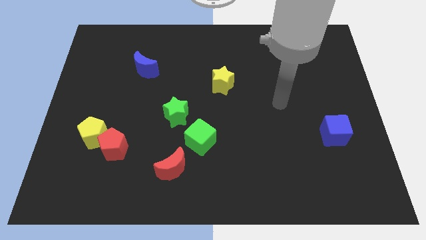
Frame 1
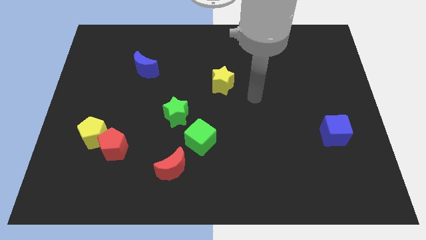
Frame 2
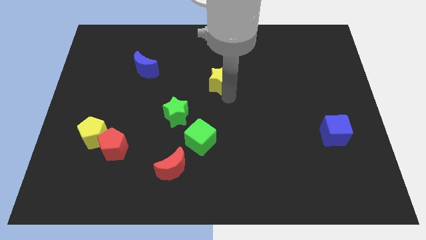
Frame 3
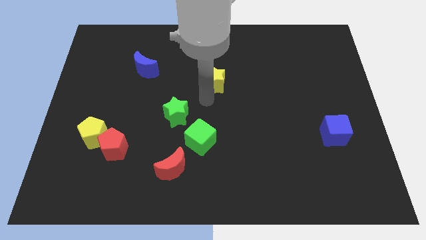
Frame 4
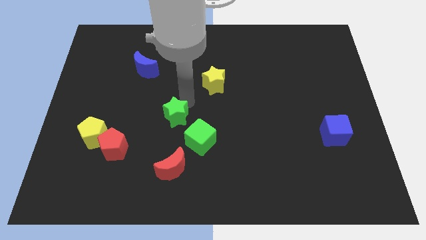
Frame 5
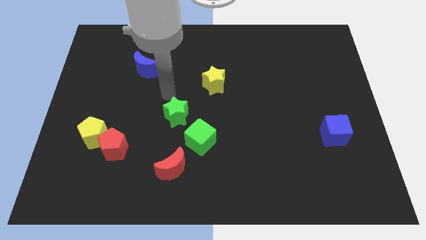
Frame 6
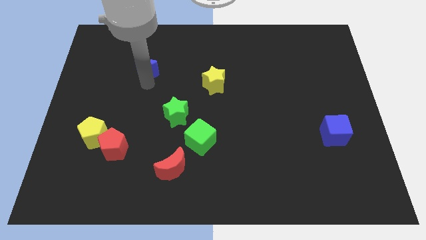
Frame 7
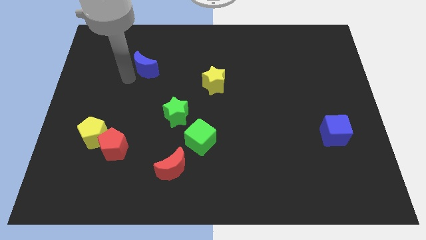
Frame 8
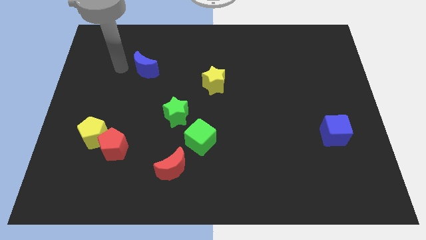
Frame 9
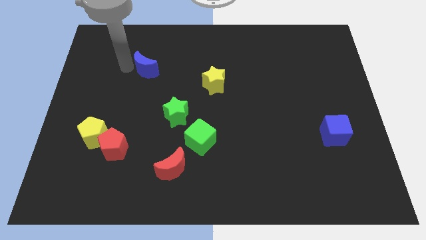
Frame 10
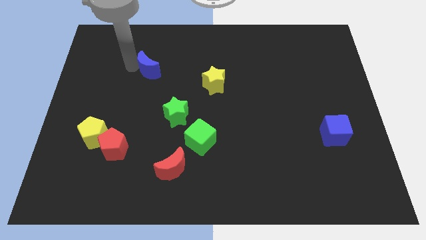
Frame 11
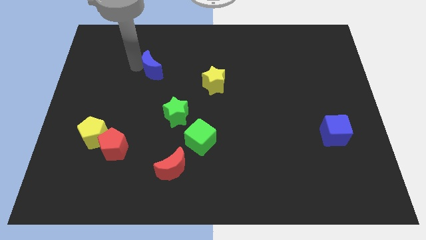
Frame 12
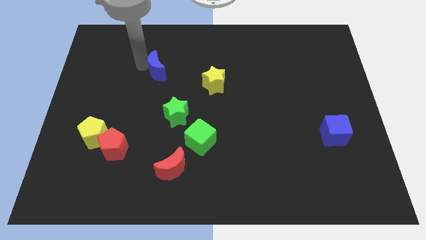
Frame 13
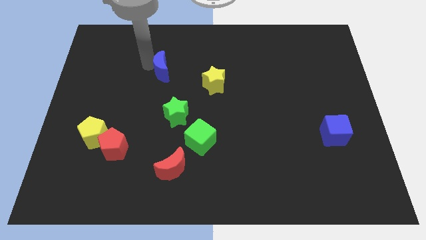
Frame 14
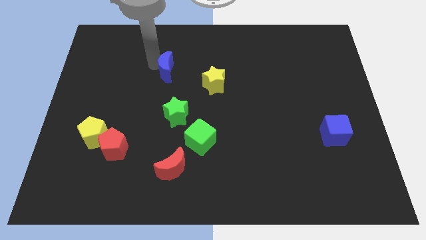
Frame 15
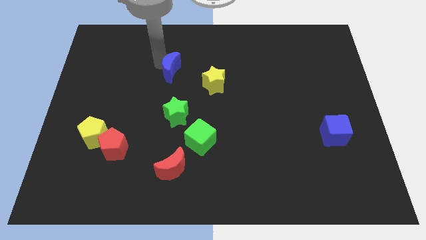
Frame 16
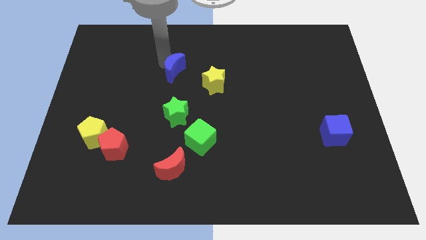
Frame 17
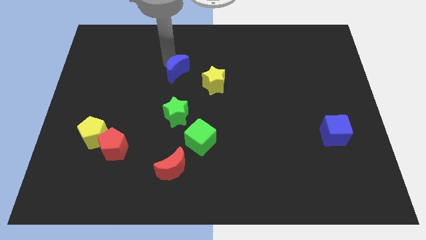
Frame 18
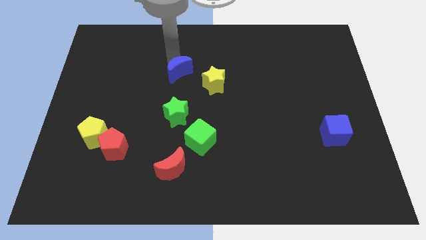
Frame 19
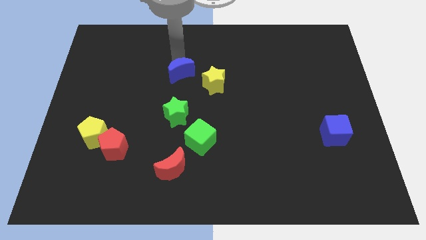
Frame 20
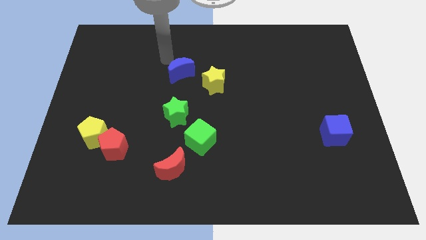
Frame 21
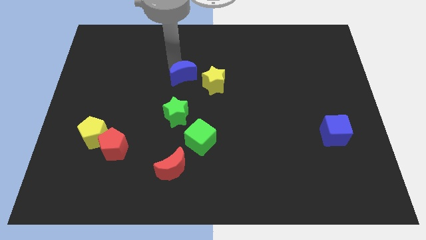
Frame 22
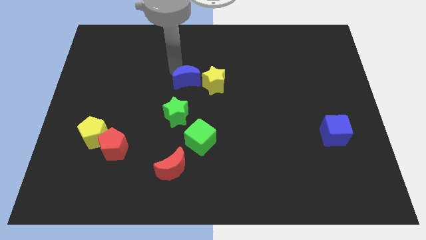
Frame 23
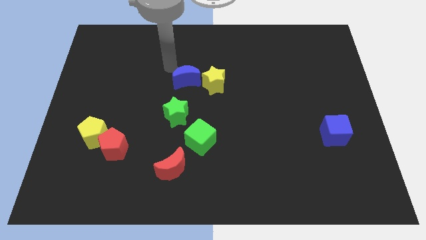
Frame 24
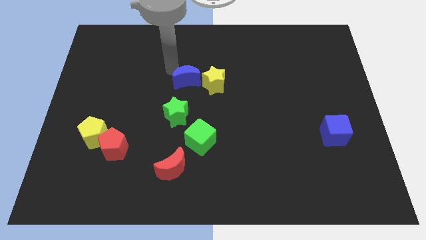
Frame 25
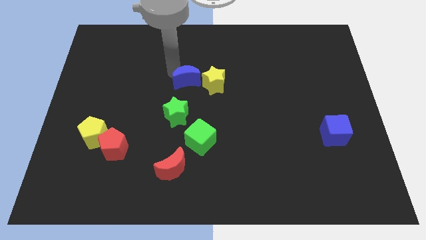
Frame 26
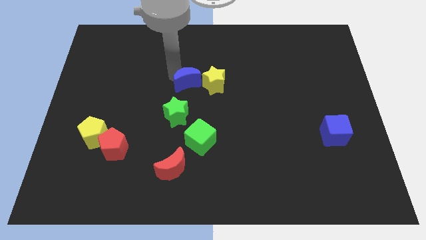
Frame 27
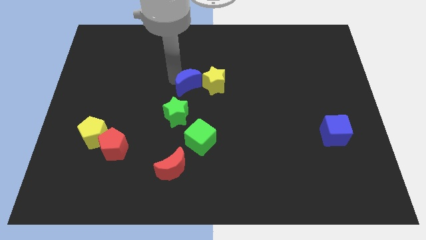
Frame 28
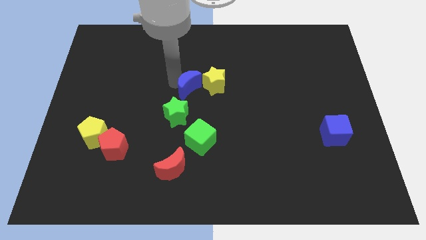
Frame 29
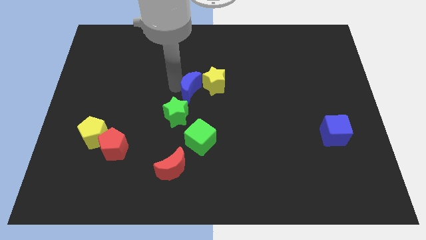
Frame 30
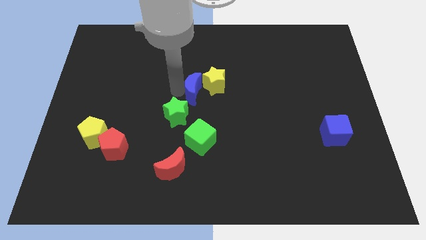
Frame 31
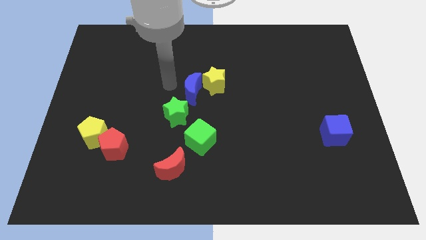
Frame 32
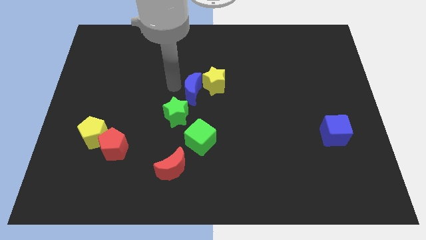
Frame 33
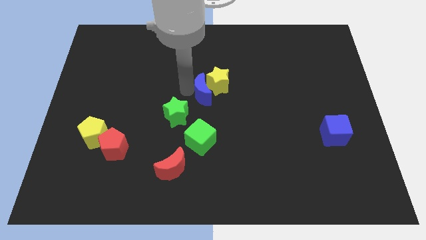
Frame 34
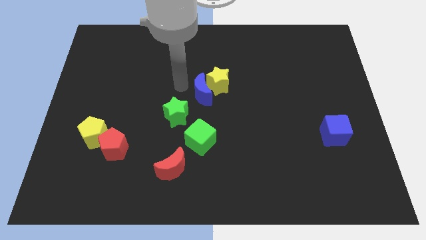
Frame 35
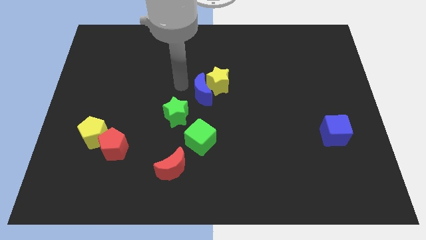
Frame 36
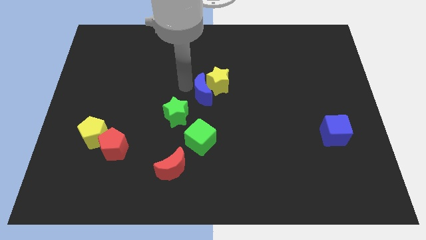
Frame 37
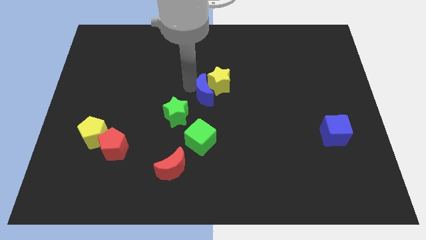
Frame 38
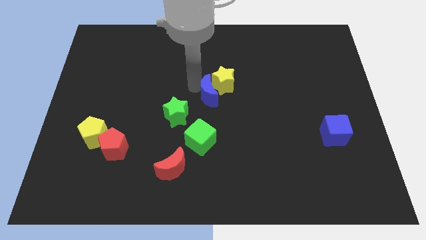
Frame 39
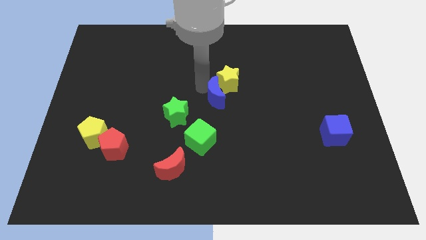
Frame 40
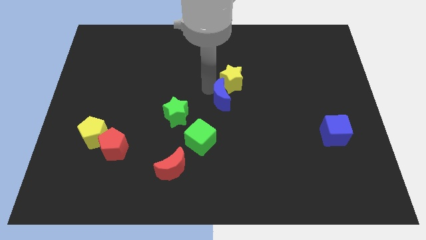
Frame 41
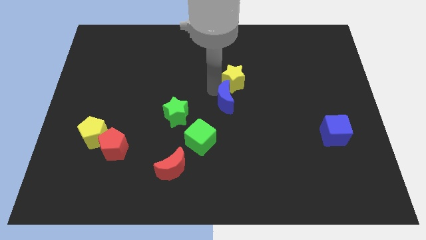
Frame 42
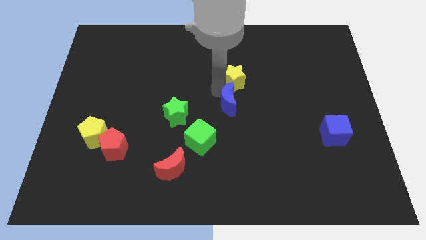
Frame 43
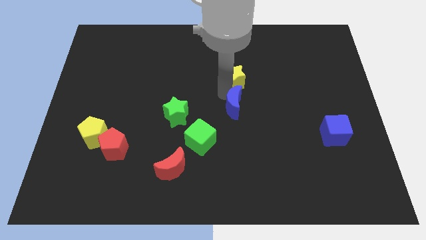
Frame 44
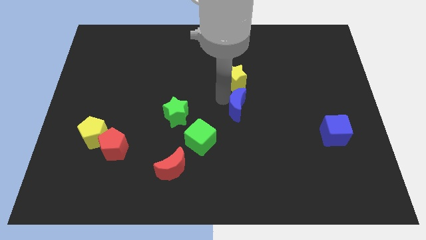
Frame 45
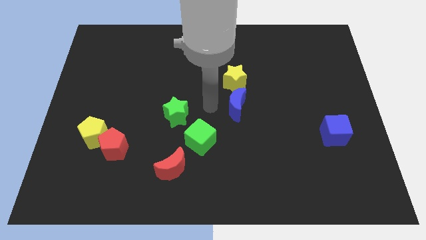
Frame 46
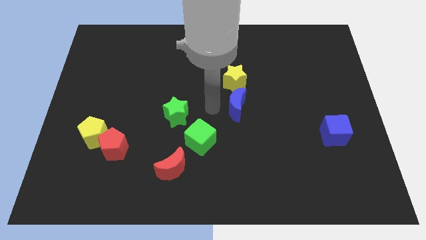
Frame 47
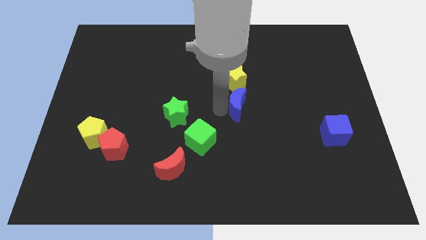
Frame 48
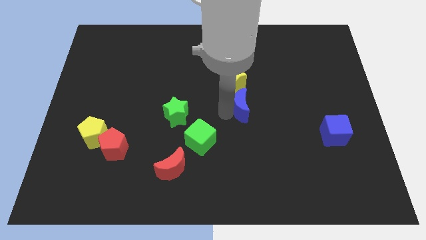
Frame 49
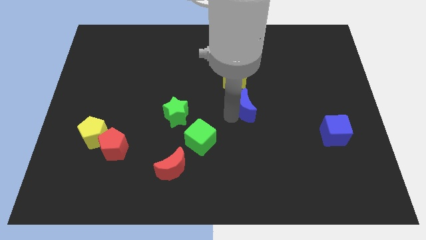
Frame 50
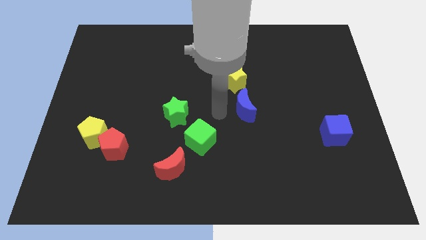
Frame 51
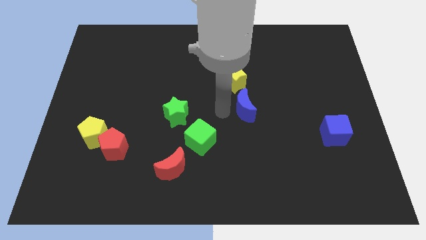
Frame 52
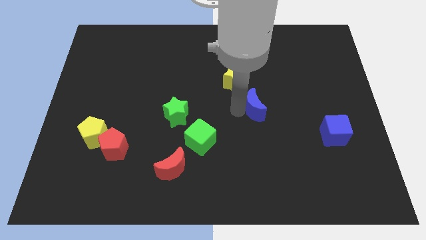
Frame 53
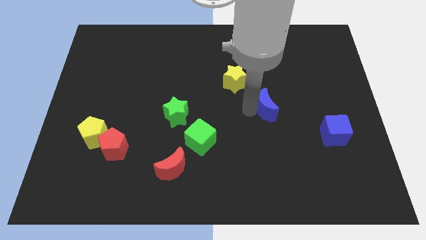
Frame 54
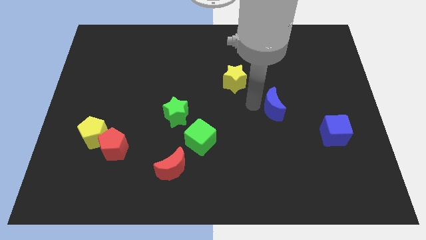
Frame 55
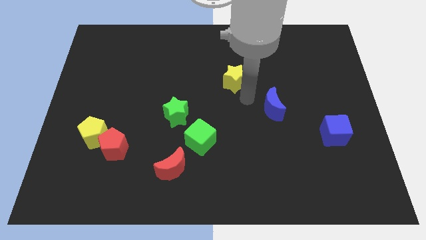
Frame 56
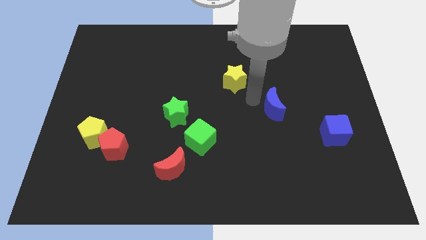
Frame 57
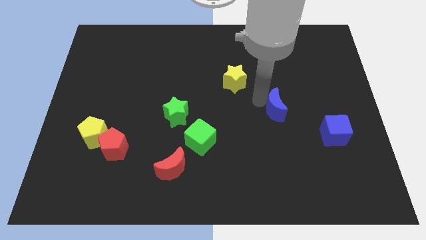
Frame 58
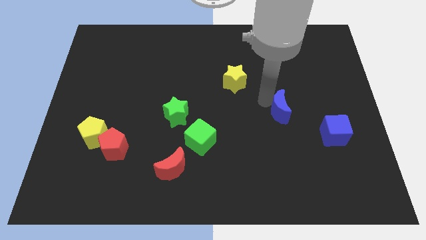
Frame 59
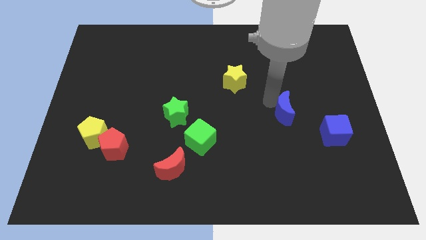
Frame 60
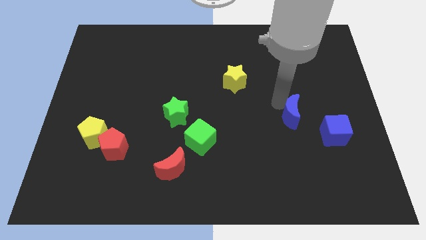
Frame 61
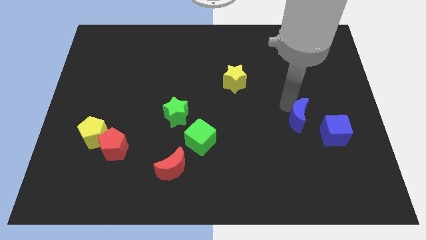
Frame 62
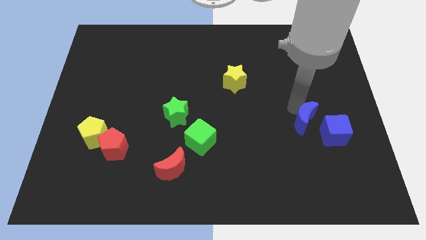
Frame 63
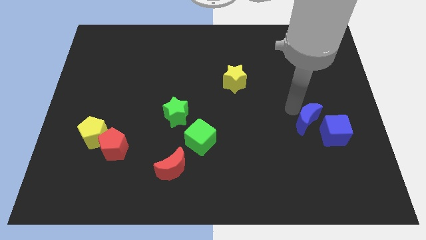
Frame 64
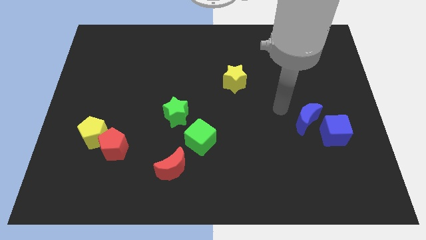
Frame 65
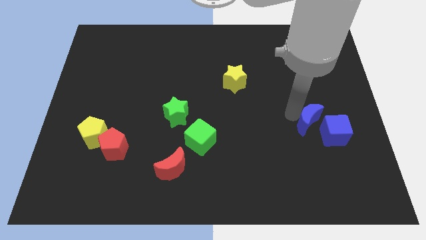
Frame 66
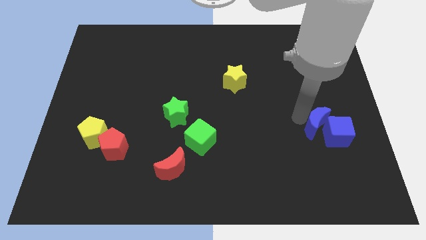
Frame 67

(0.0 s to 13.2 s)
push the blue moon towards the blue cube

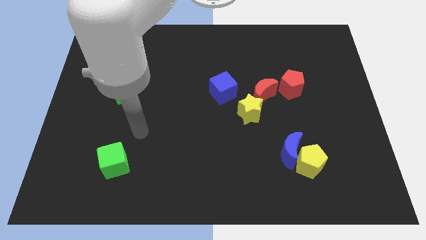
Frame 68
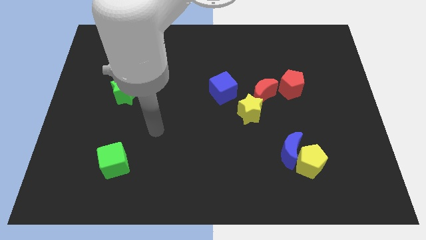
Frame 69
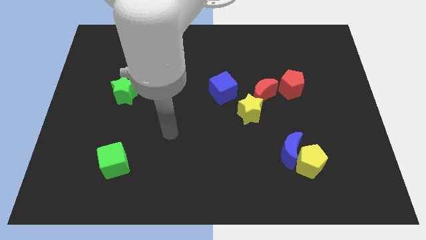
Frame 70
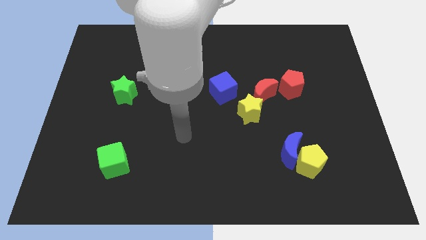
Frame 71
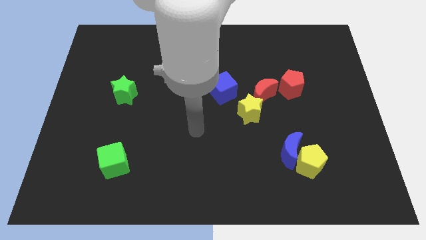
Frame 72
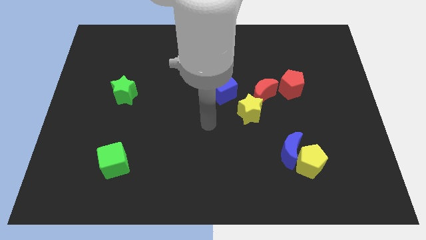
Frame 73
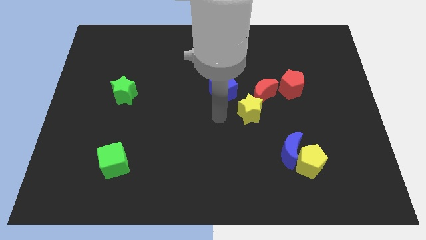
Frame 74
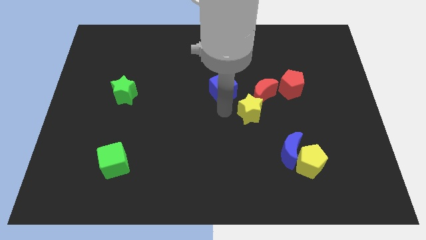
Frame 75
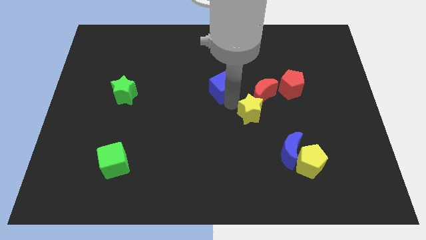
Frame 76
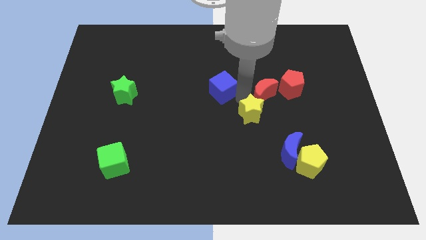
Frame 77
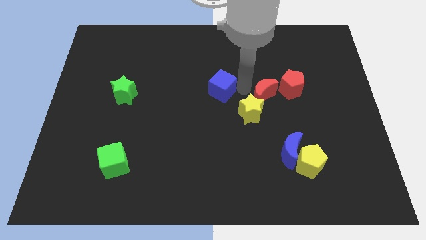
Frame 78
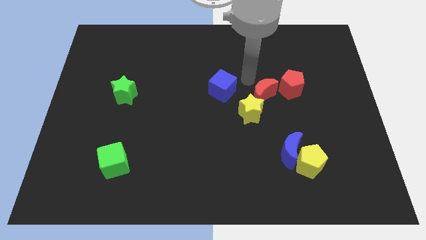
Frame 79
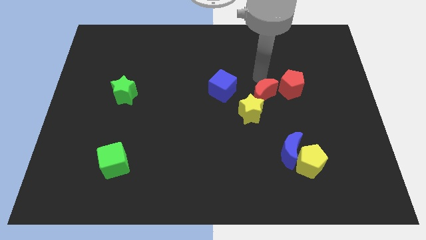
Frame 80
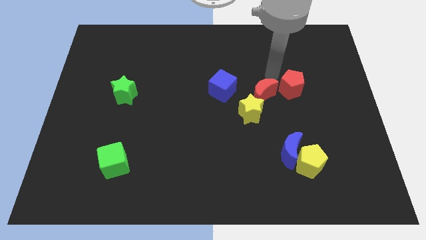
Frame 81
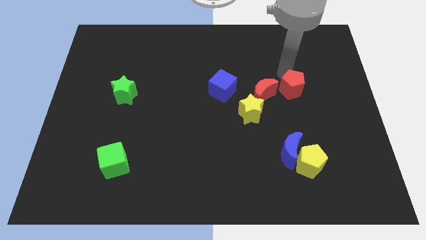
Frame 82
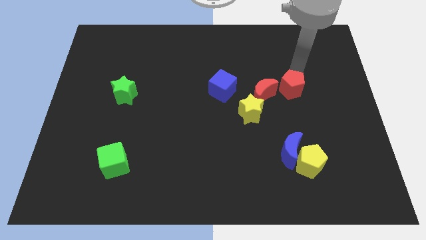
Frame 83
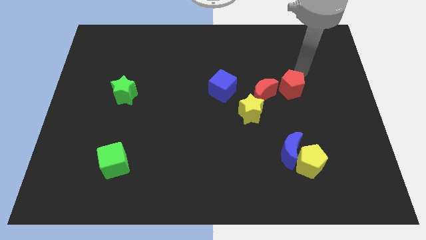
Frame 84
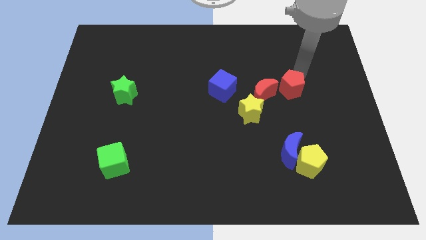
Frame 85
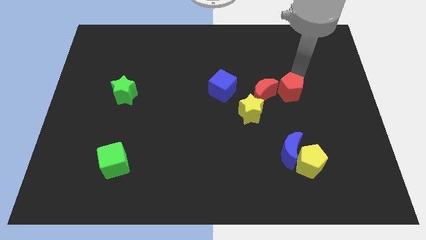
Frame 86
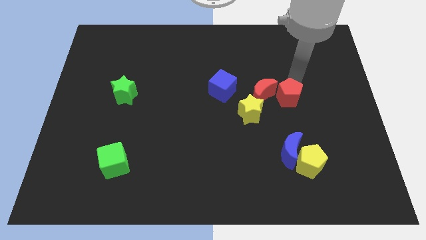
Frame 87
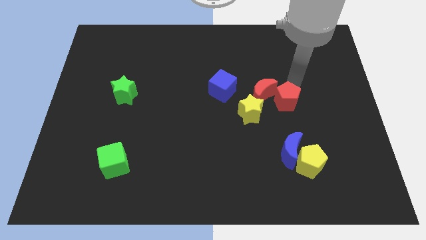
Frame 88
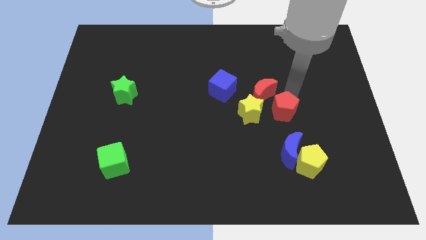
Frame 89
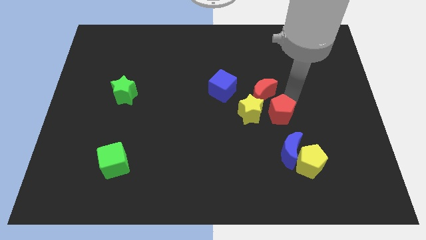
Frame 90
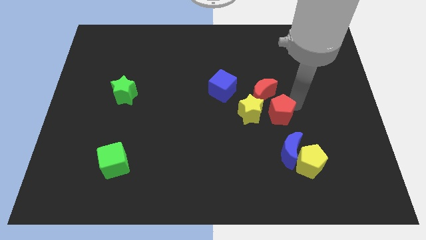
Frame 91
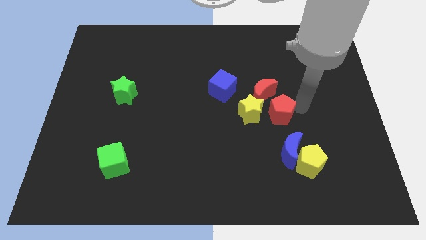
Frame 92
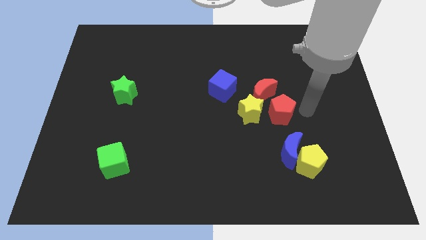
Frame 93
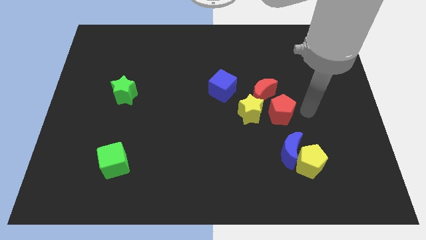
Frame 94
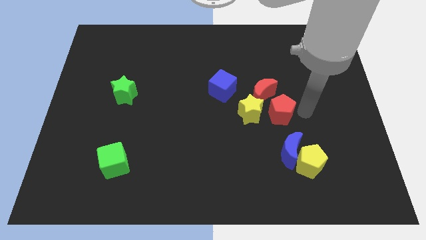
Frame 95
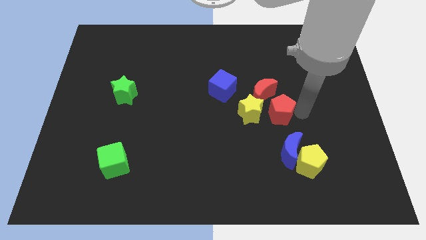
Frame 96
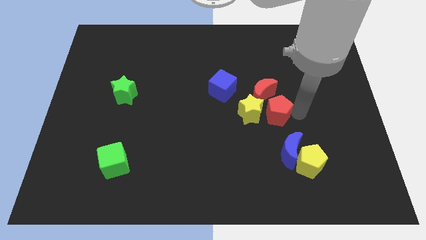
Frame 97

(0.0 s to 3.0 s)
slide the red pentagon to the yellow star
